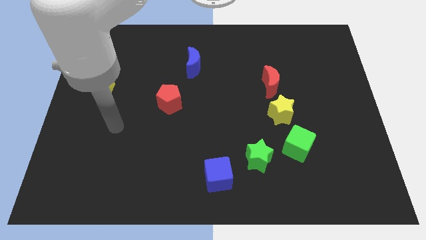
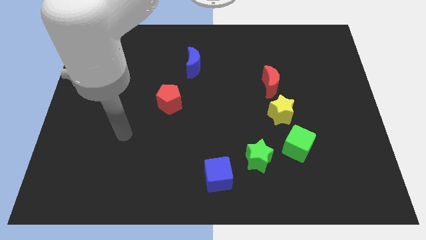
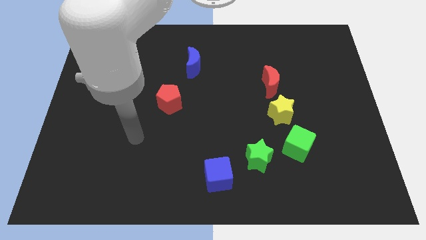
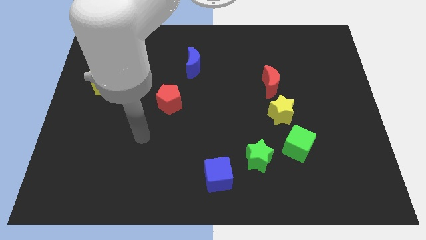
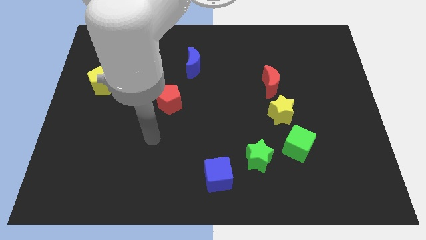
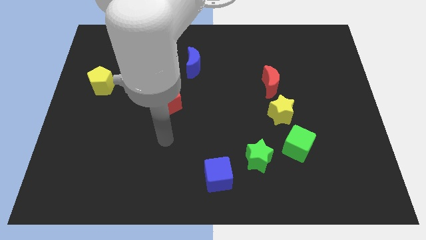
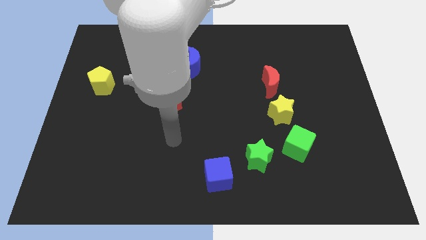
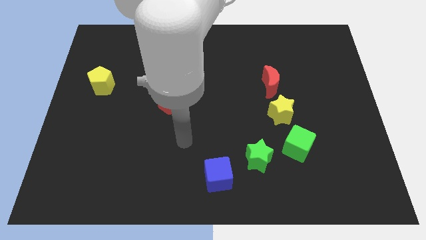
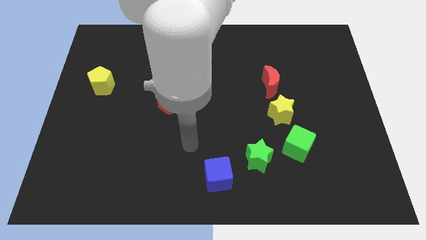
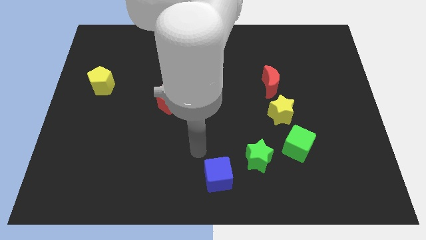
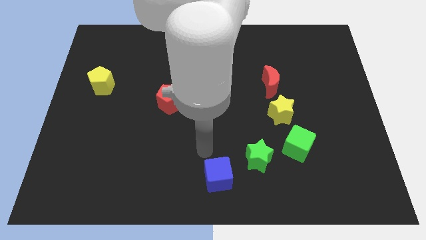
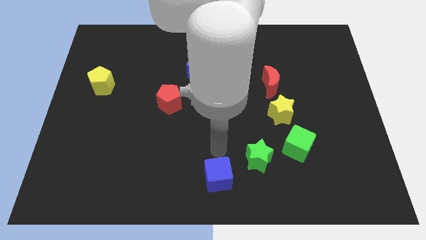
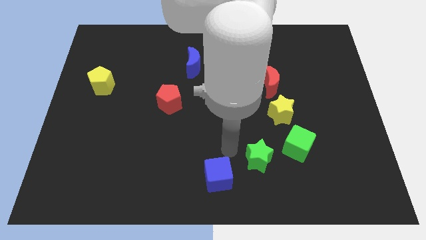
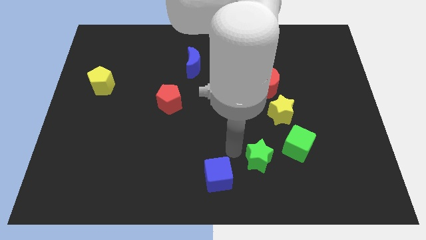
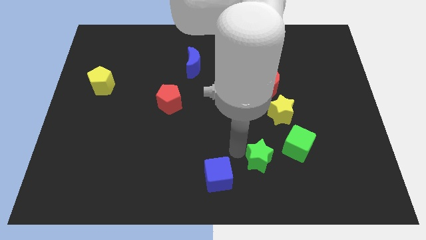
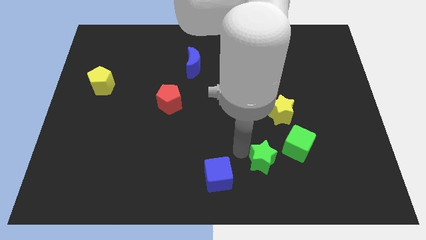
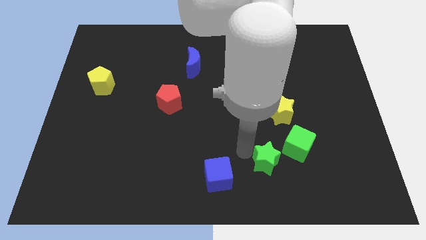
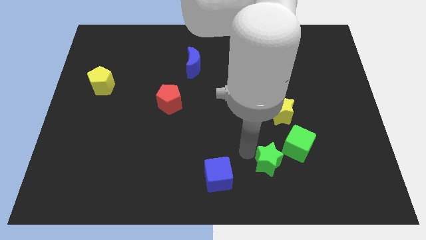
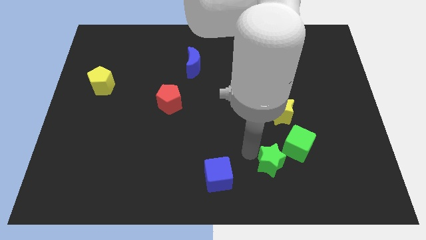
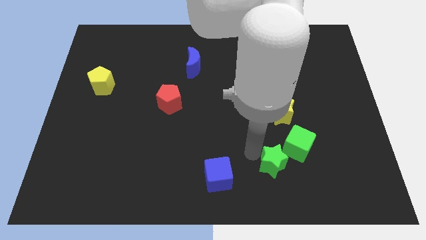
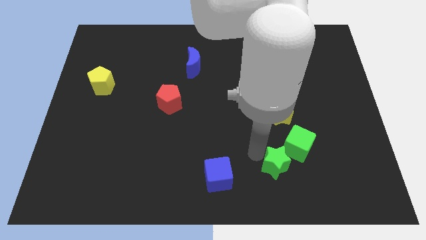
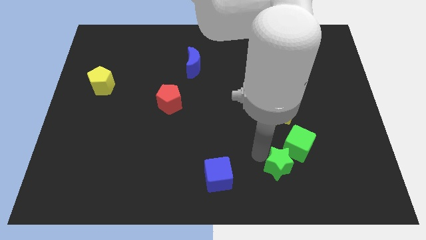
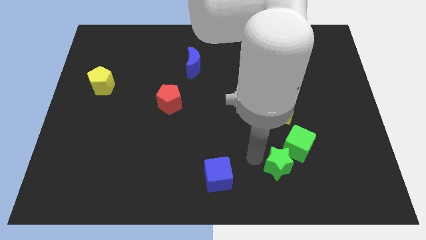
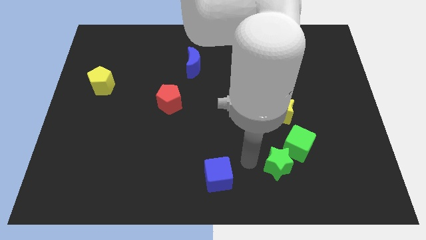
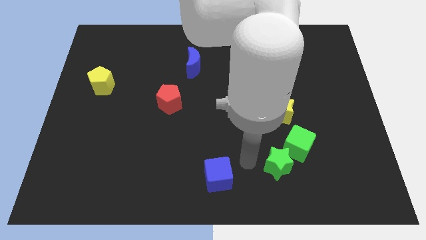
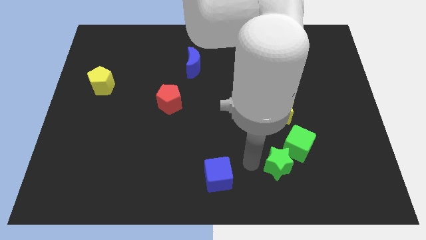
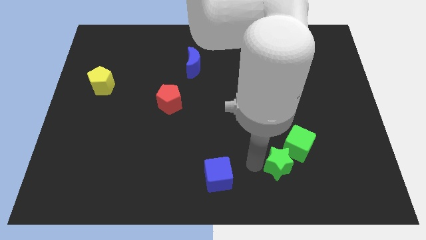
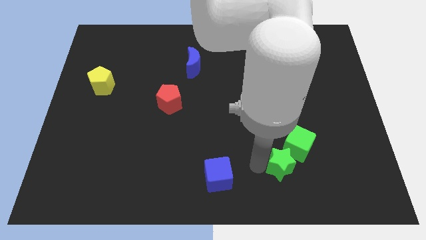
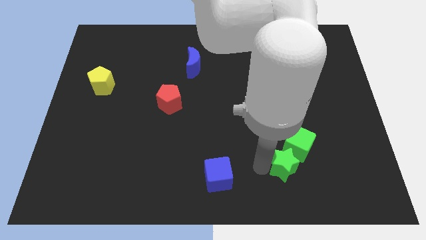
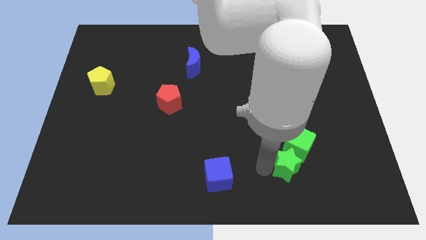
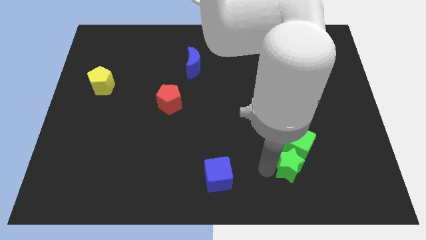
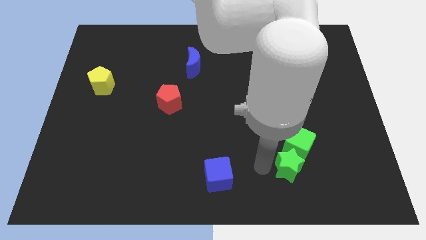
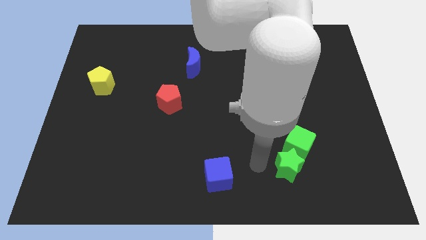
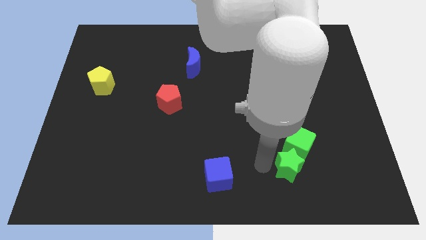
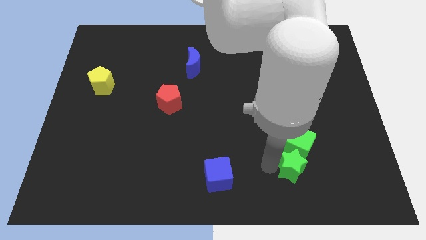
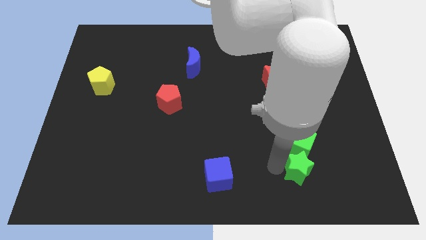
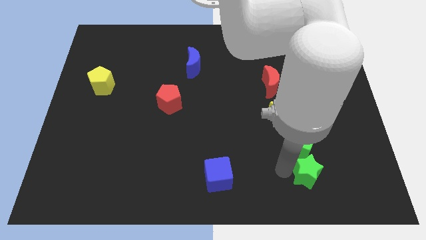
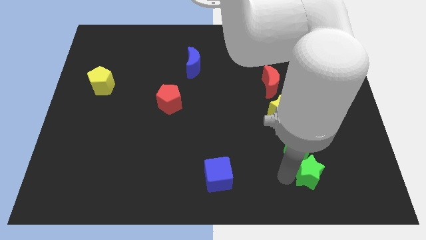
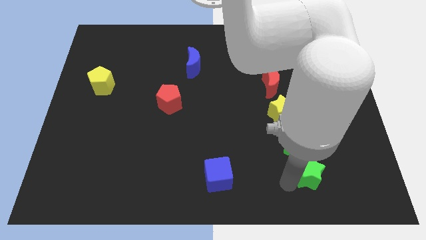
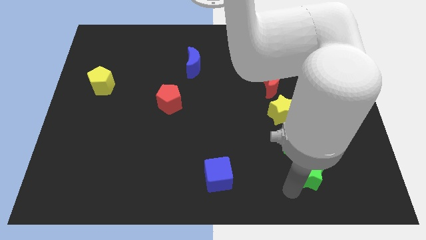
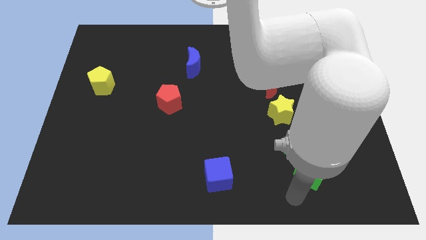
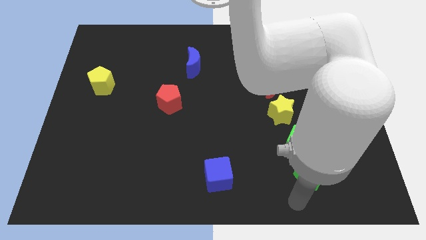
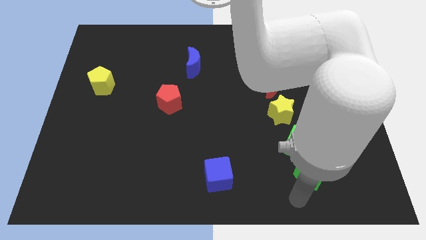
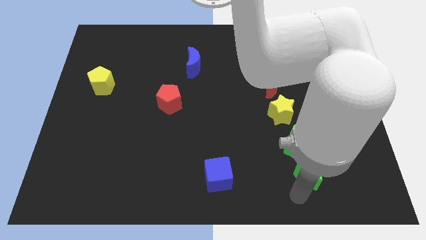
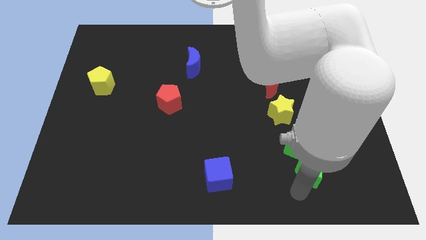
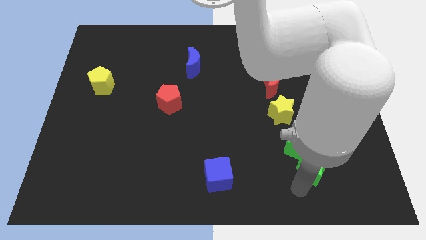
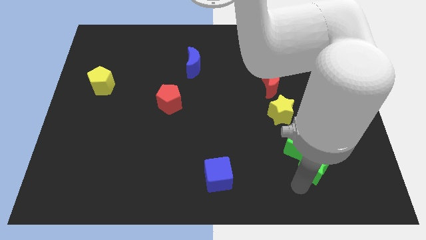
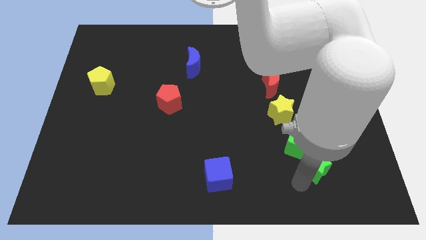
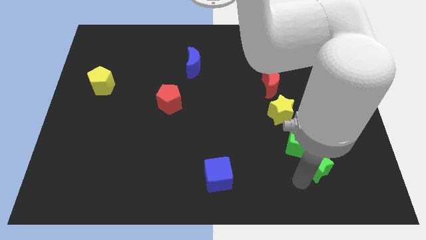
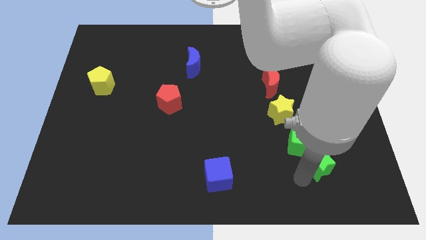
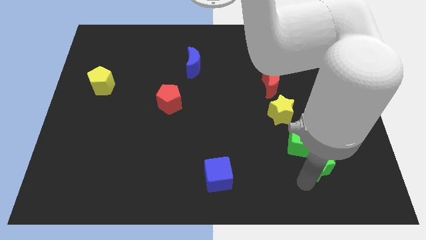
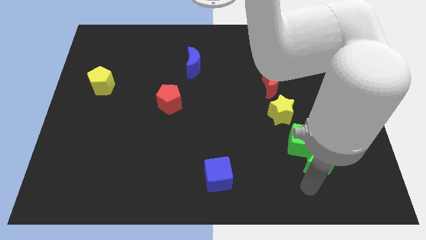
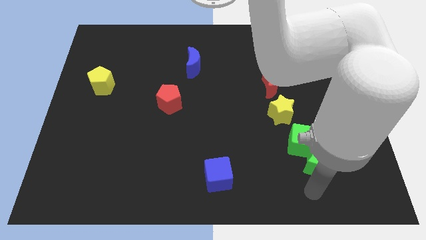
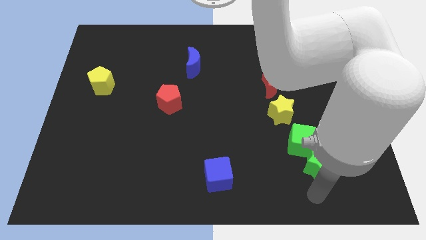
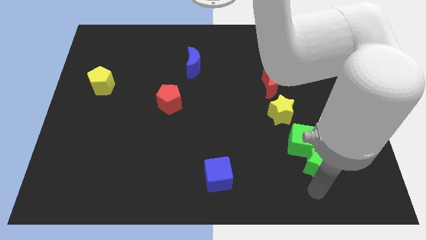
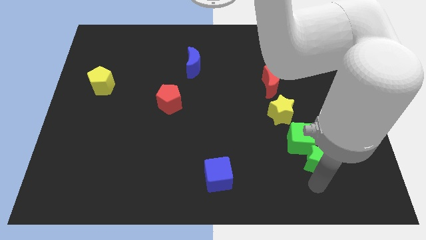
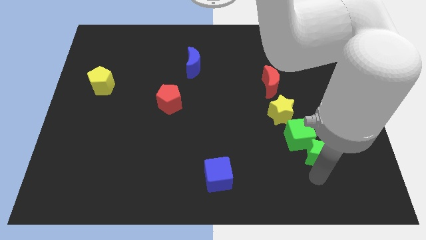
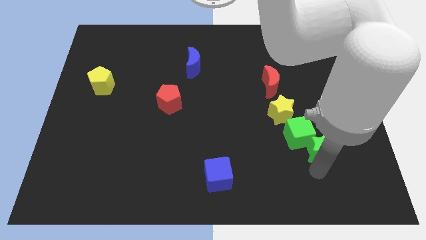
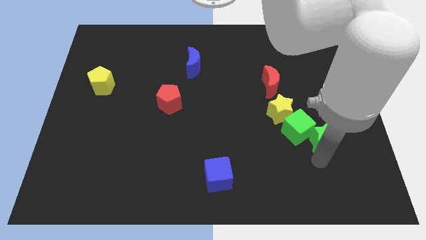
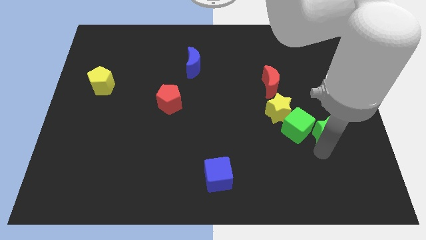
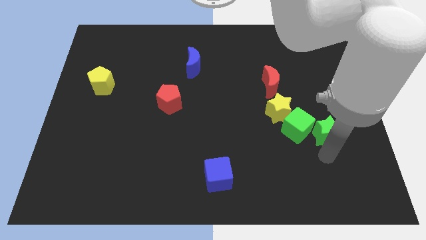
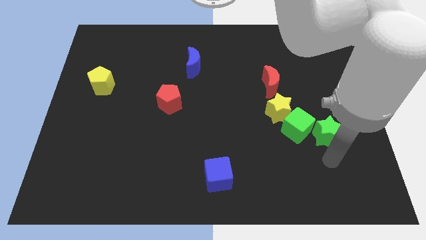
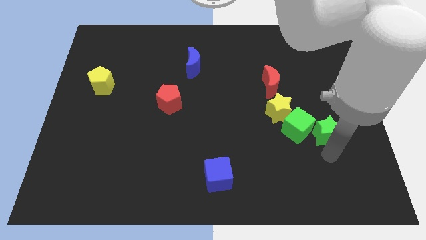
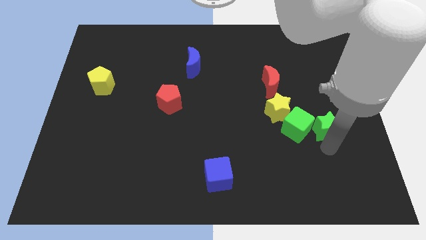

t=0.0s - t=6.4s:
slide the green star to the right of the yellow star

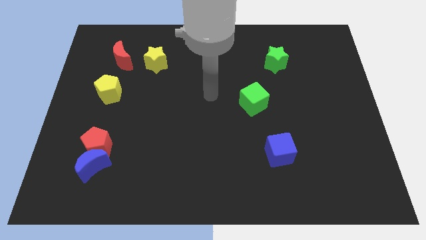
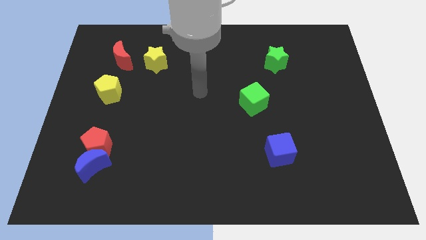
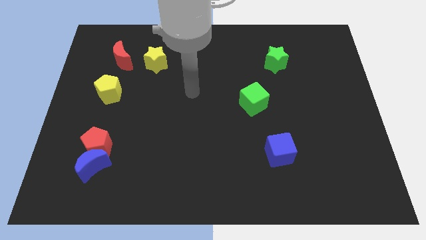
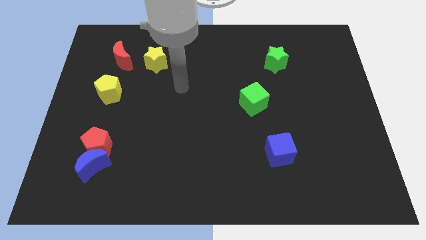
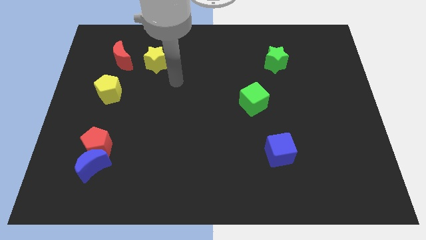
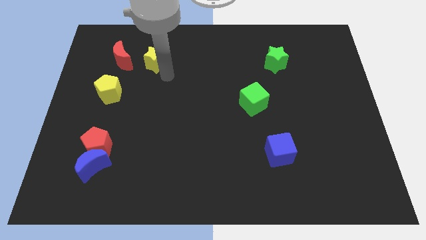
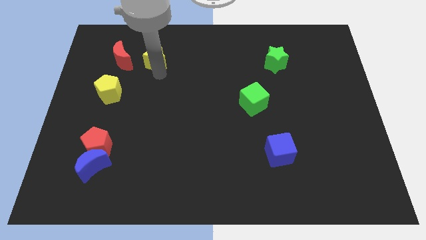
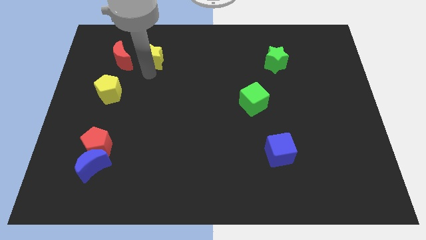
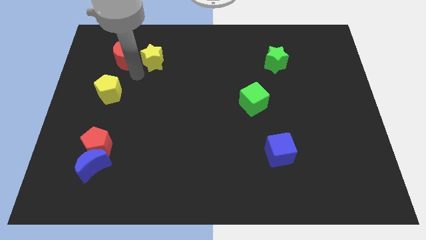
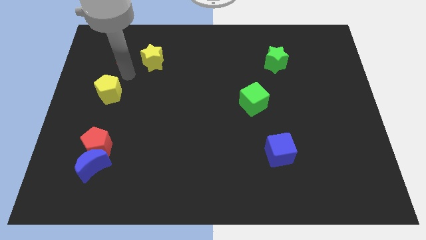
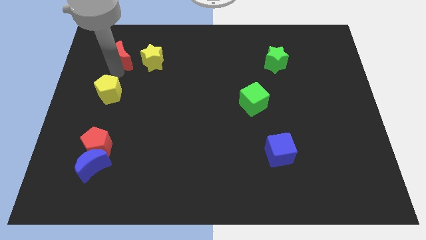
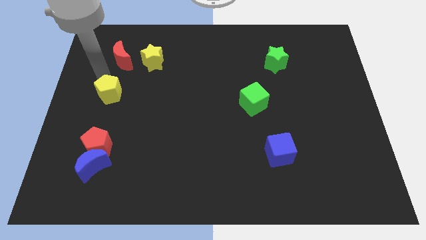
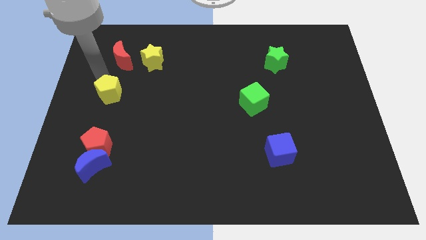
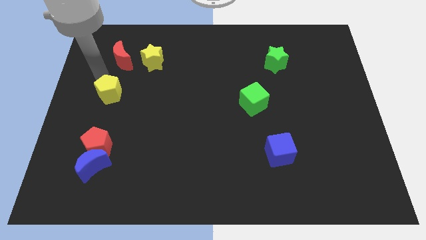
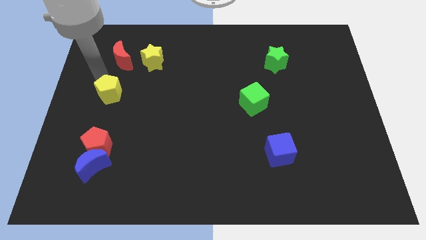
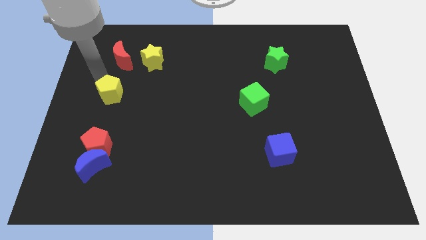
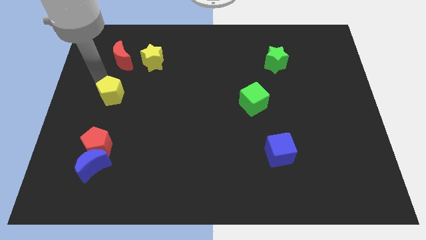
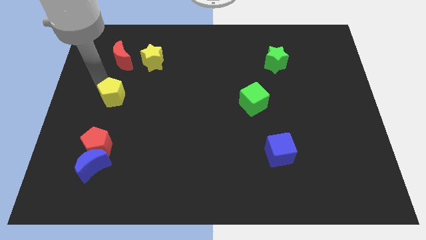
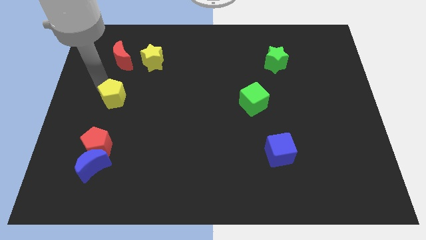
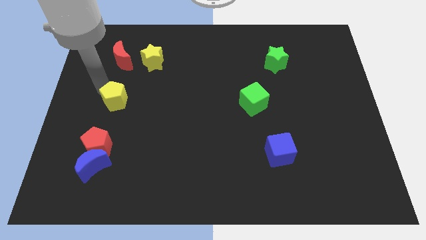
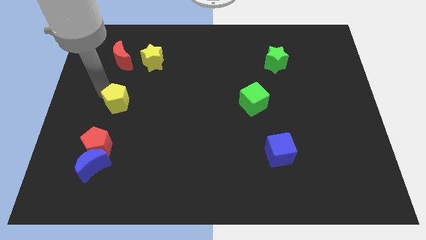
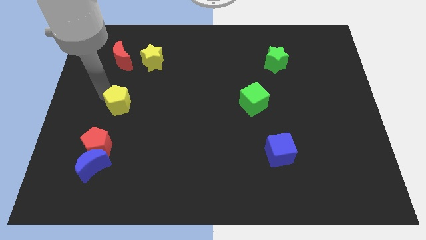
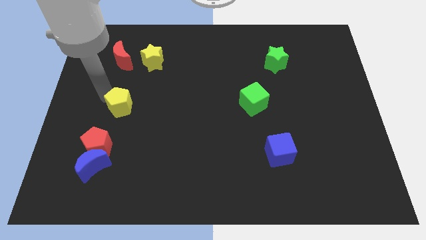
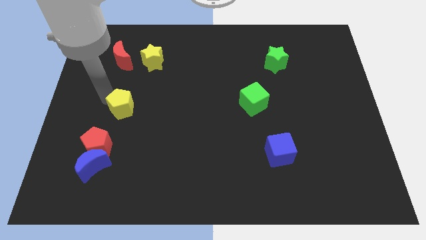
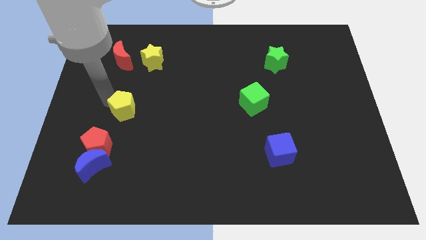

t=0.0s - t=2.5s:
slide the yellow pentagon diagonally up and to the right of the red pentagon
